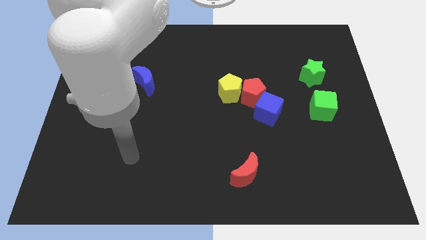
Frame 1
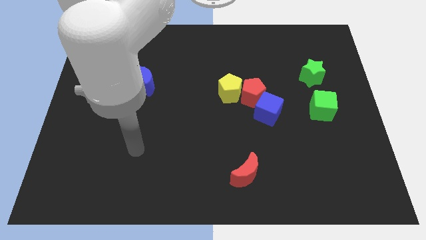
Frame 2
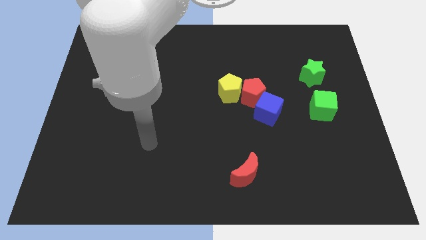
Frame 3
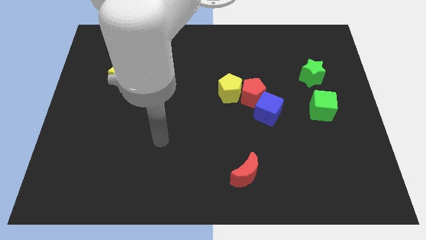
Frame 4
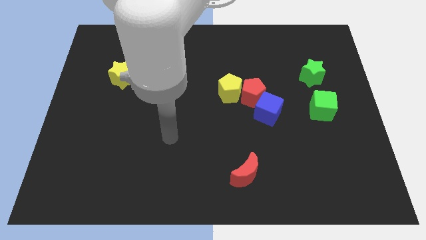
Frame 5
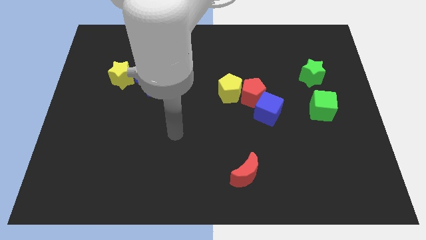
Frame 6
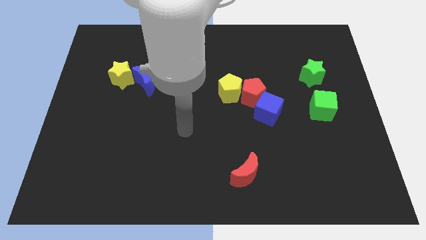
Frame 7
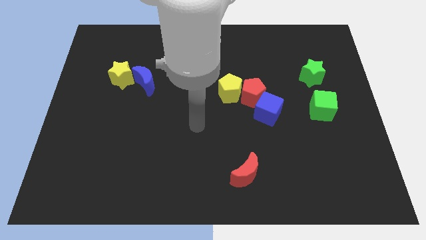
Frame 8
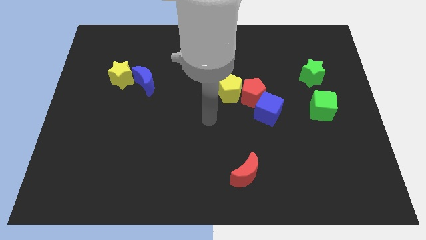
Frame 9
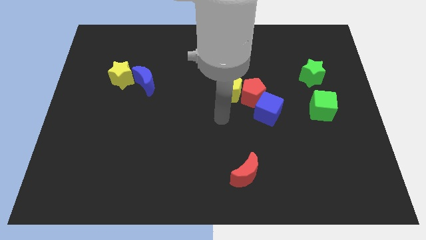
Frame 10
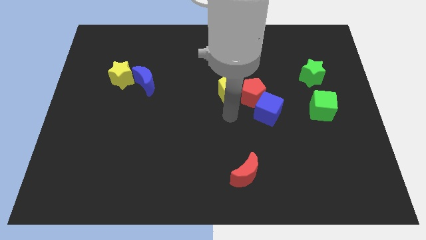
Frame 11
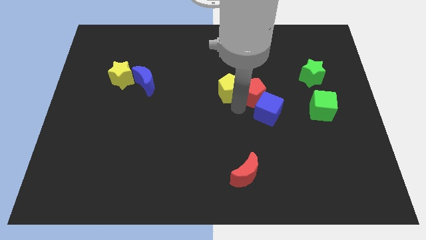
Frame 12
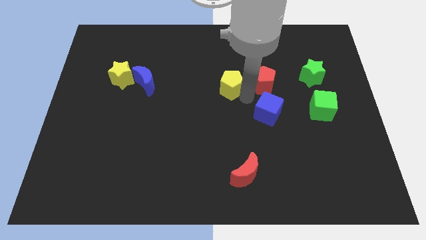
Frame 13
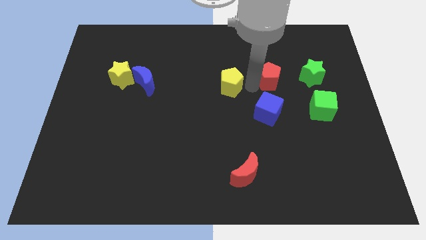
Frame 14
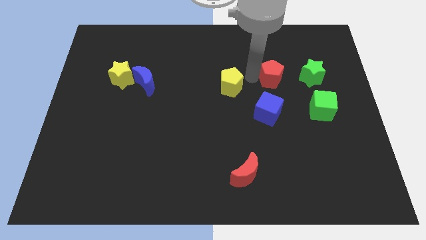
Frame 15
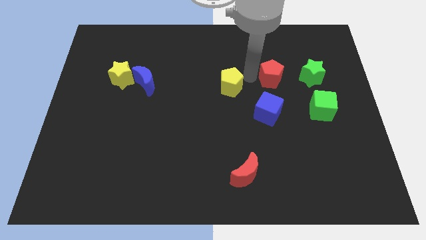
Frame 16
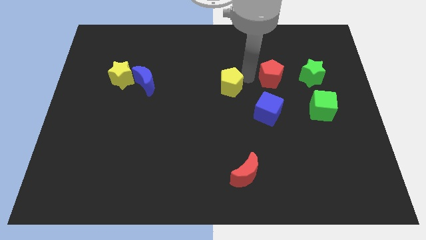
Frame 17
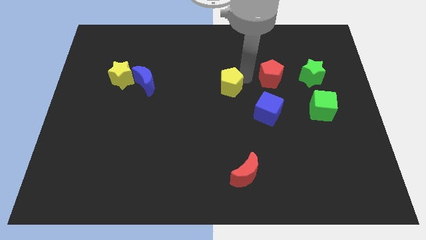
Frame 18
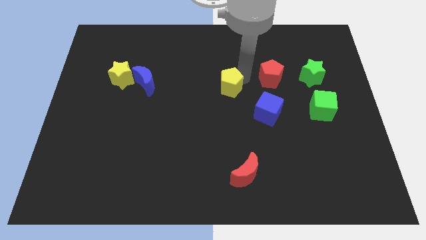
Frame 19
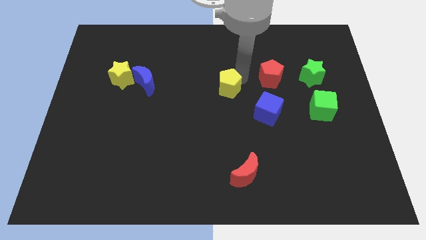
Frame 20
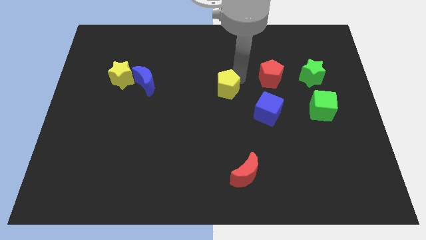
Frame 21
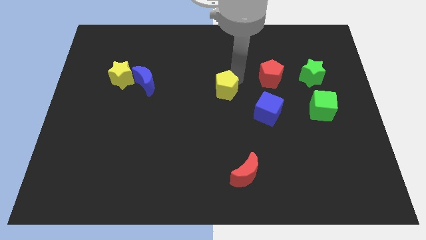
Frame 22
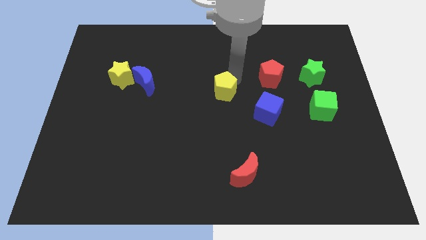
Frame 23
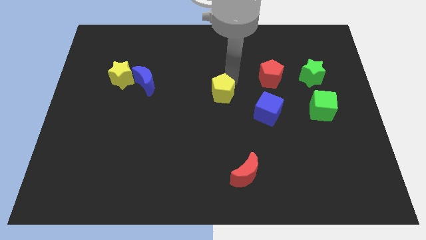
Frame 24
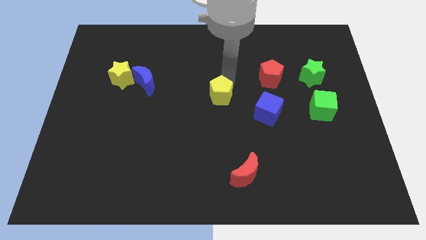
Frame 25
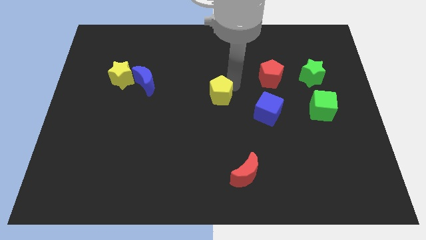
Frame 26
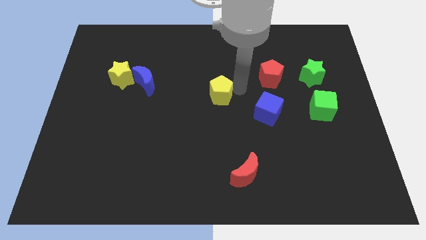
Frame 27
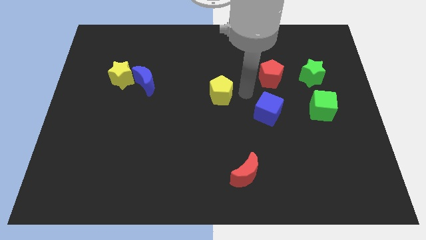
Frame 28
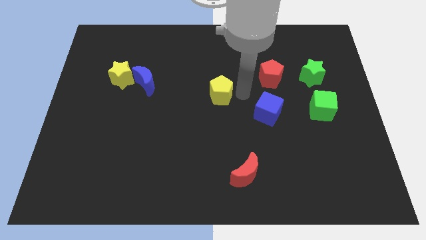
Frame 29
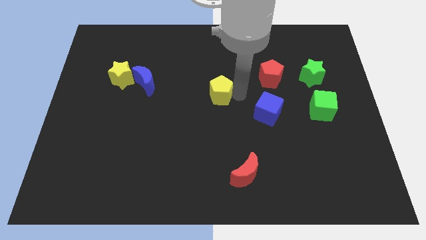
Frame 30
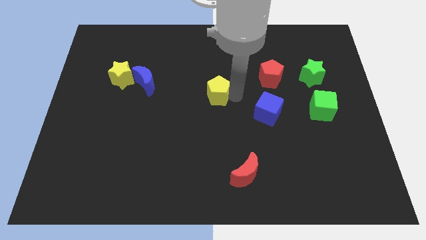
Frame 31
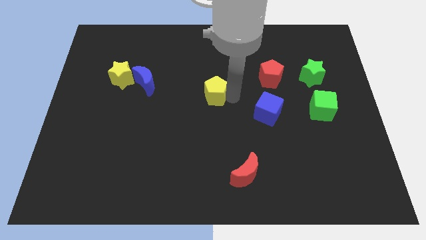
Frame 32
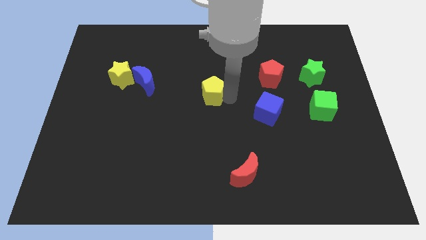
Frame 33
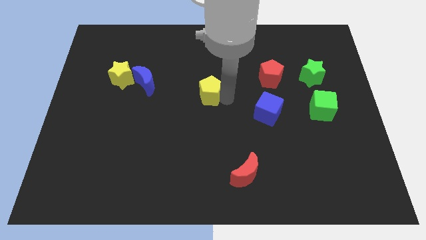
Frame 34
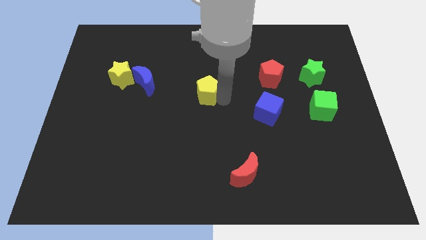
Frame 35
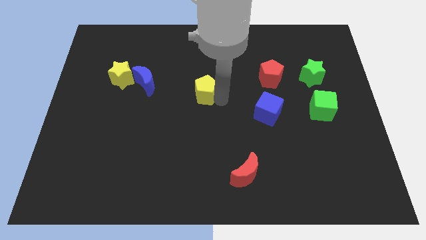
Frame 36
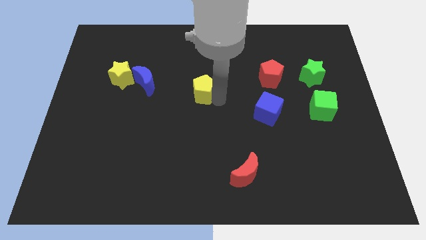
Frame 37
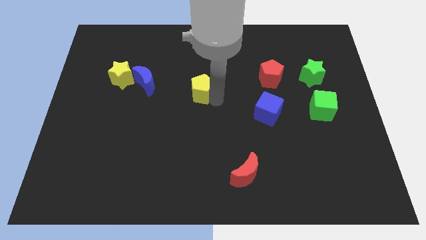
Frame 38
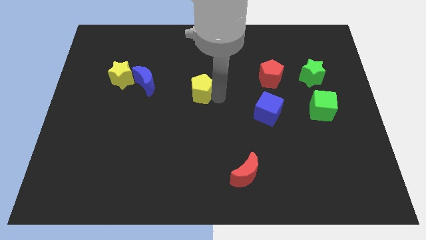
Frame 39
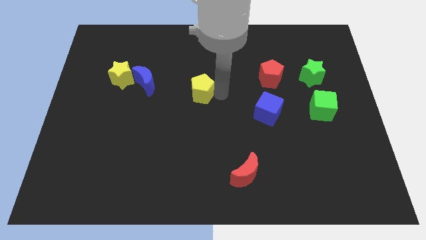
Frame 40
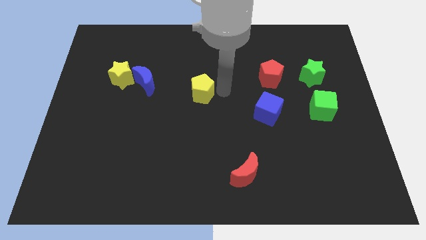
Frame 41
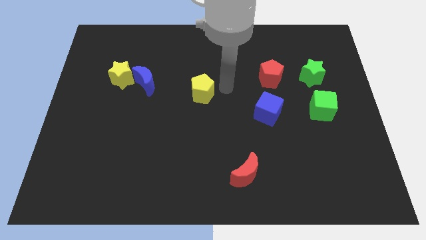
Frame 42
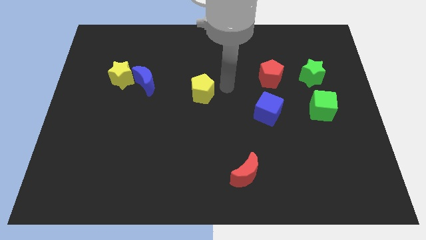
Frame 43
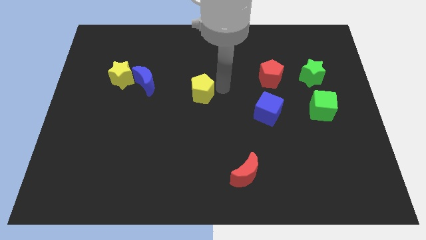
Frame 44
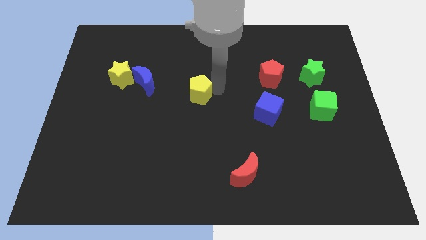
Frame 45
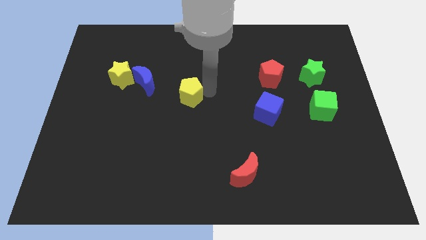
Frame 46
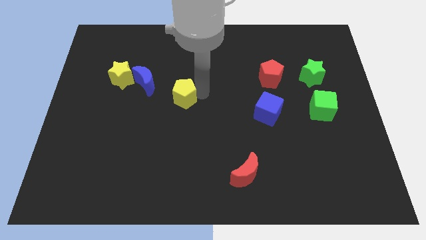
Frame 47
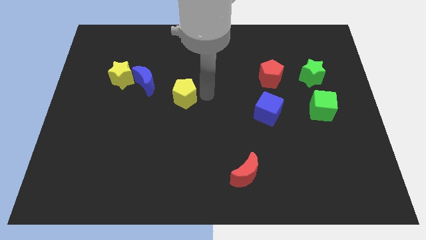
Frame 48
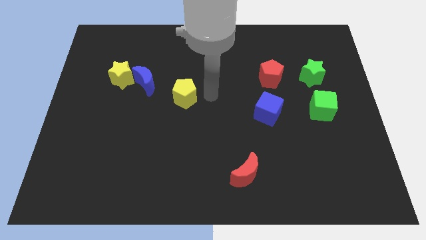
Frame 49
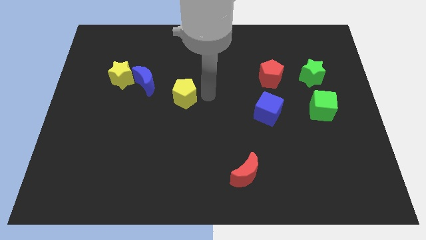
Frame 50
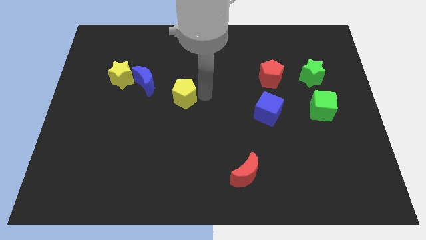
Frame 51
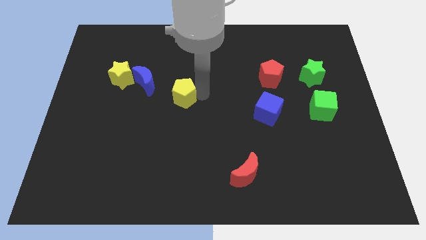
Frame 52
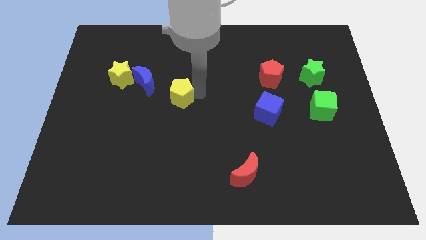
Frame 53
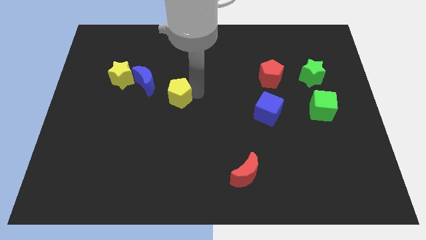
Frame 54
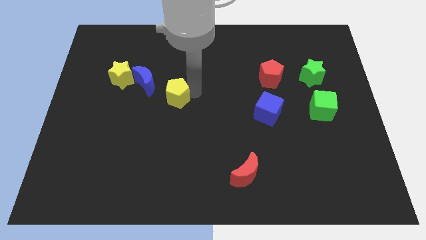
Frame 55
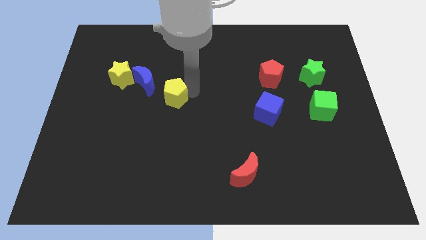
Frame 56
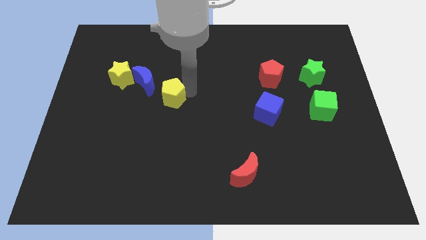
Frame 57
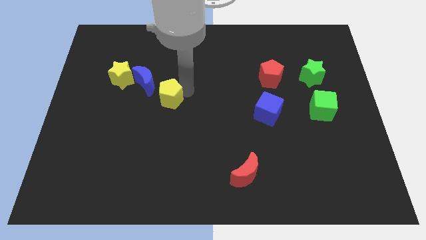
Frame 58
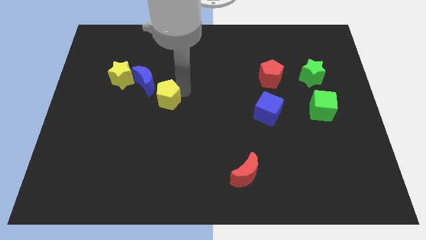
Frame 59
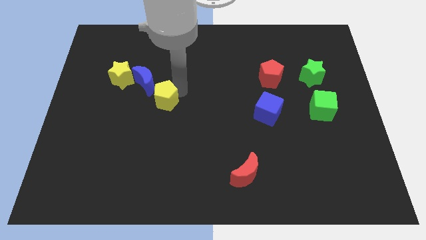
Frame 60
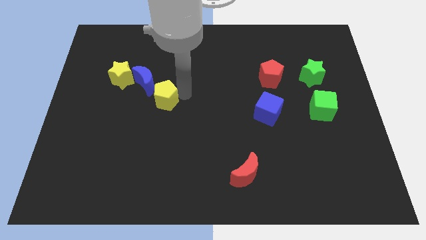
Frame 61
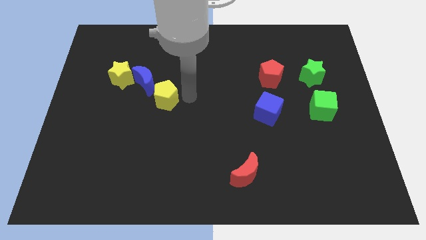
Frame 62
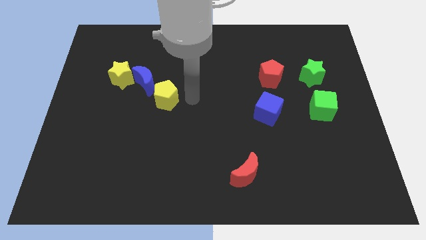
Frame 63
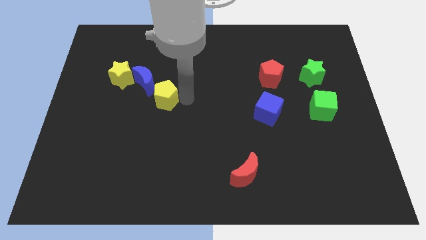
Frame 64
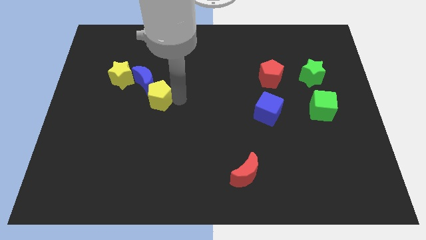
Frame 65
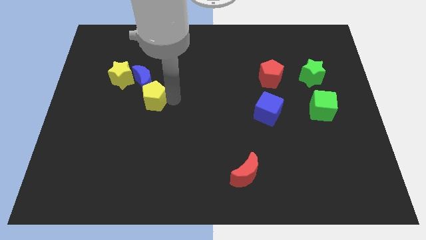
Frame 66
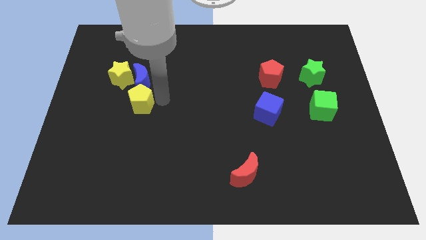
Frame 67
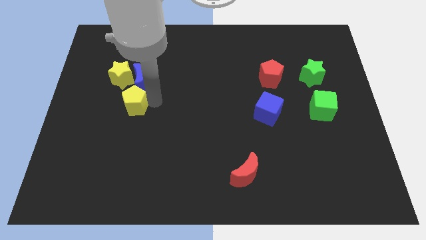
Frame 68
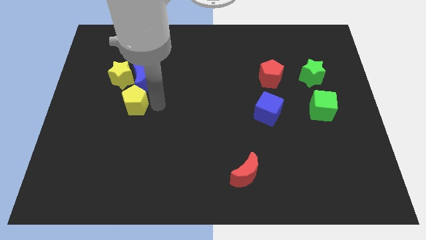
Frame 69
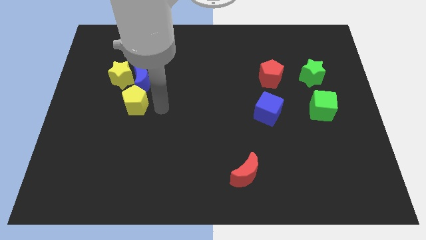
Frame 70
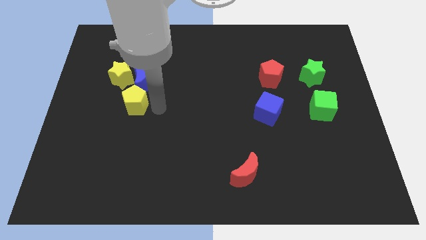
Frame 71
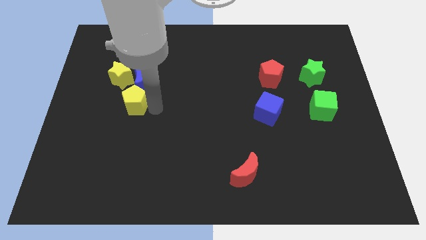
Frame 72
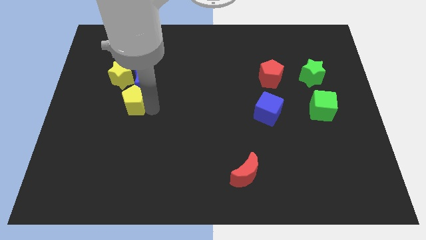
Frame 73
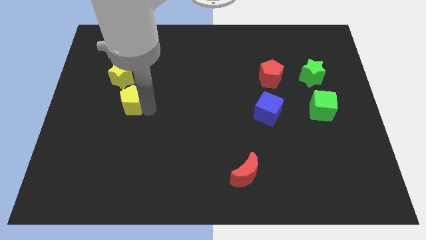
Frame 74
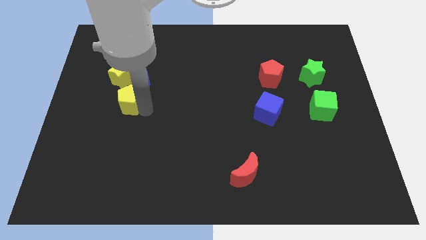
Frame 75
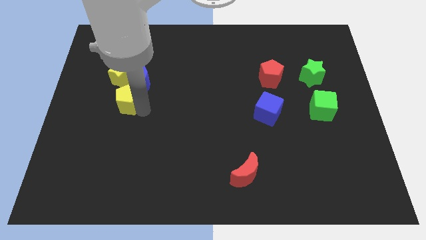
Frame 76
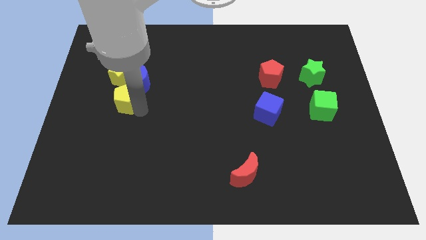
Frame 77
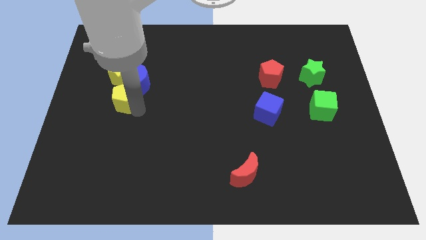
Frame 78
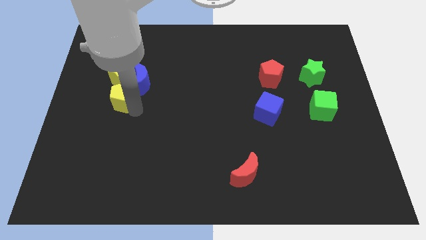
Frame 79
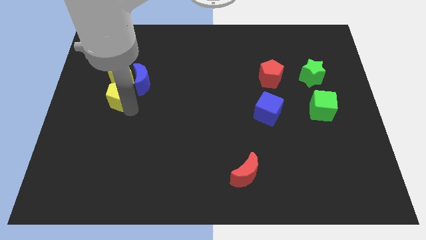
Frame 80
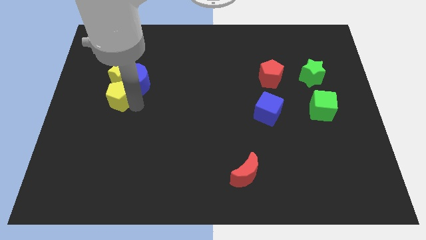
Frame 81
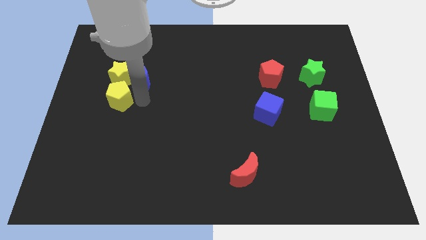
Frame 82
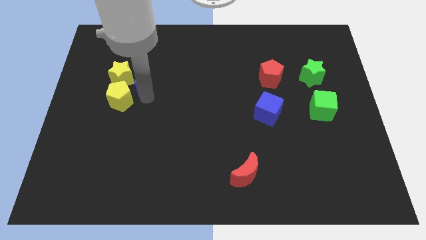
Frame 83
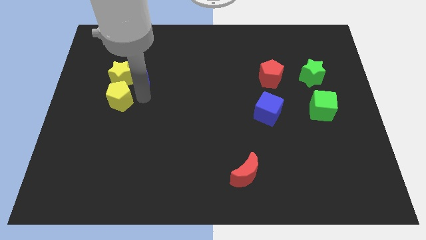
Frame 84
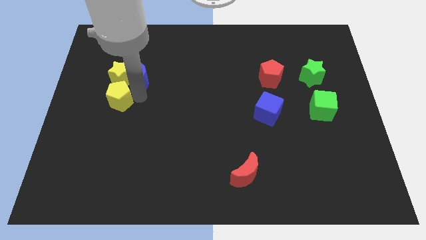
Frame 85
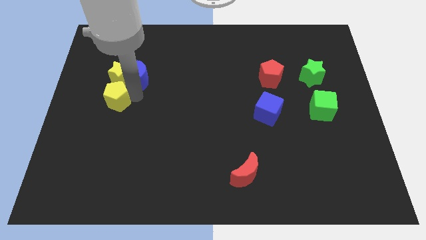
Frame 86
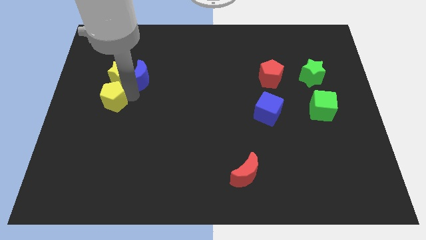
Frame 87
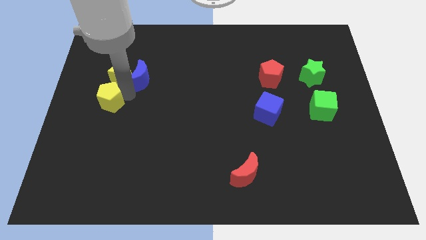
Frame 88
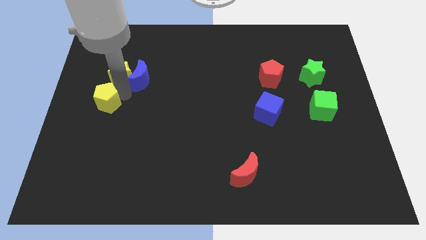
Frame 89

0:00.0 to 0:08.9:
slide the yellow pentagon to the left side of the board
